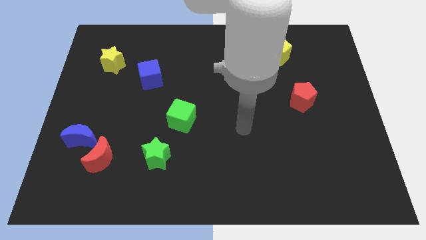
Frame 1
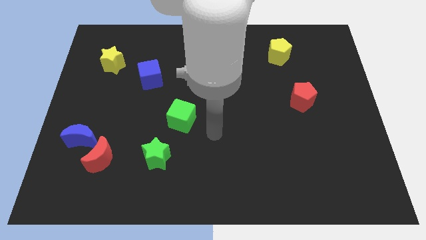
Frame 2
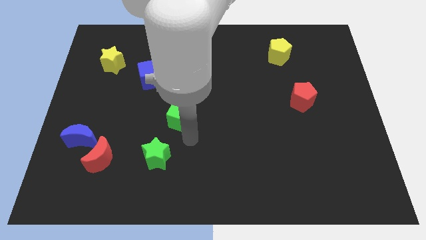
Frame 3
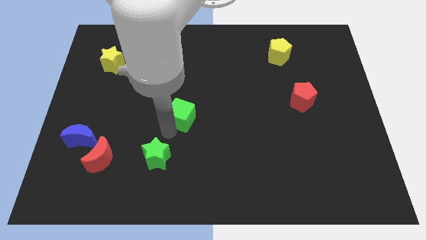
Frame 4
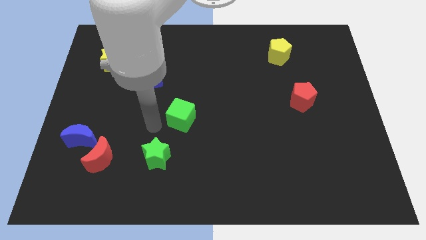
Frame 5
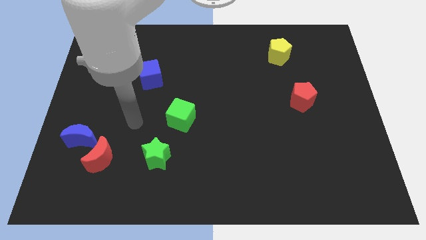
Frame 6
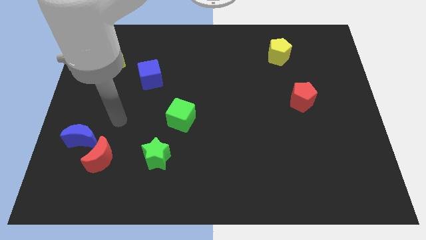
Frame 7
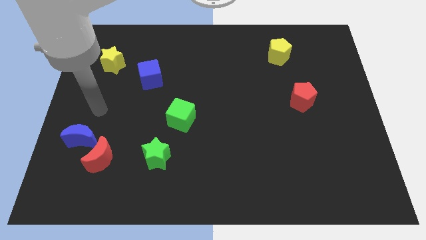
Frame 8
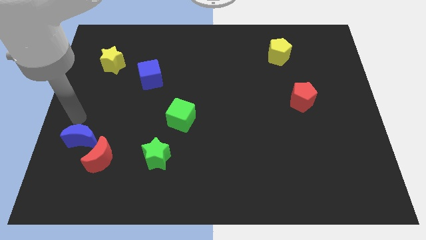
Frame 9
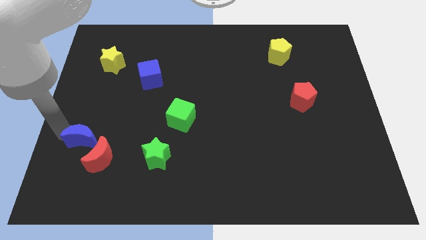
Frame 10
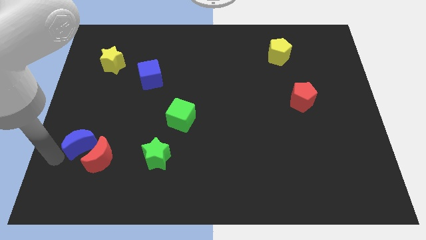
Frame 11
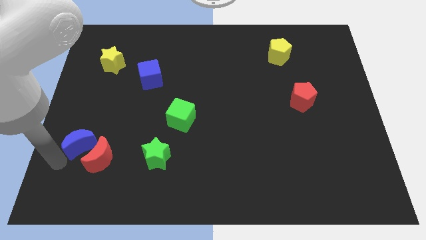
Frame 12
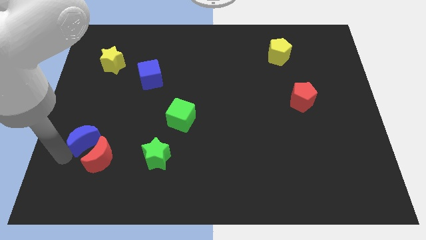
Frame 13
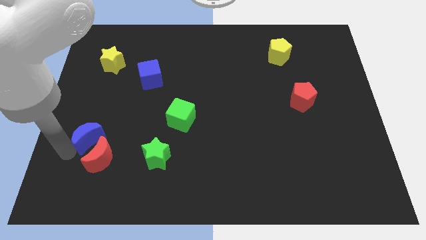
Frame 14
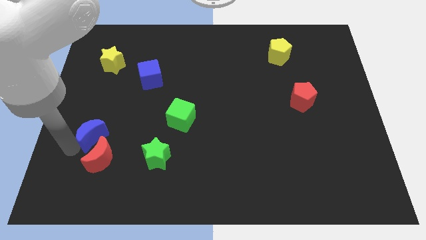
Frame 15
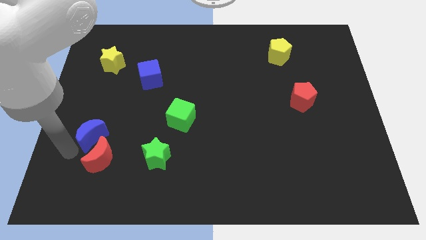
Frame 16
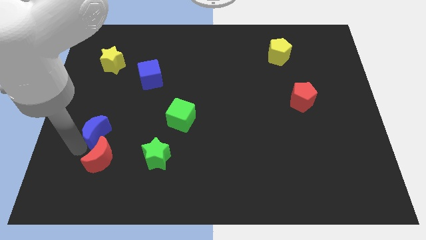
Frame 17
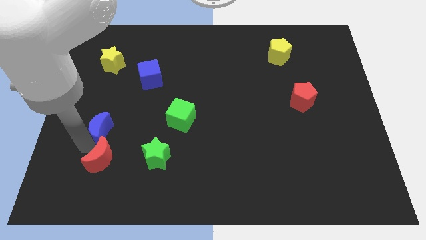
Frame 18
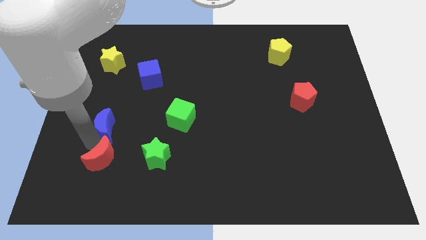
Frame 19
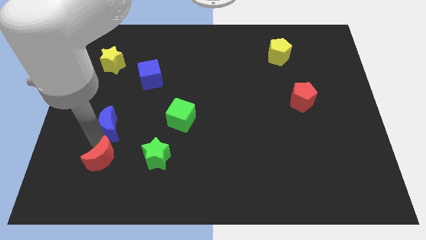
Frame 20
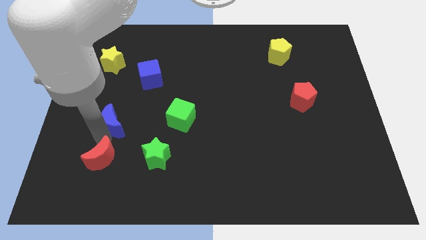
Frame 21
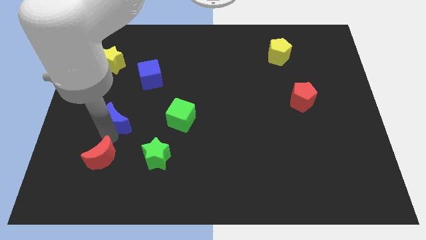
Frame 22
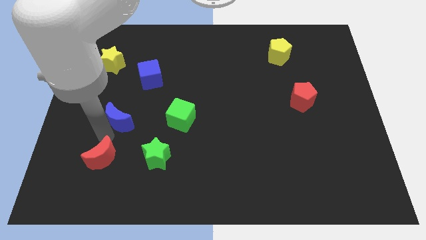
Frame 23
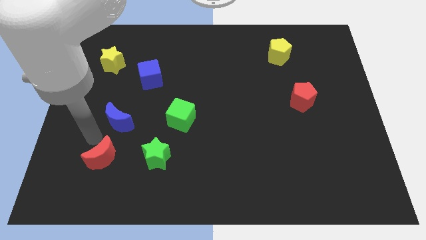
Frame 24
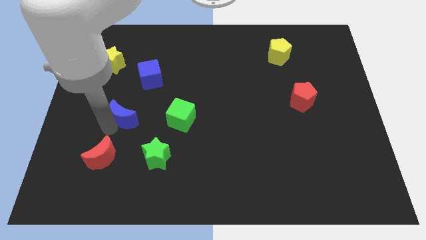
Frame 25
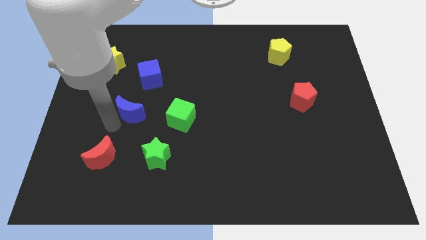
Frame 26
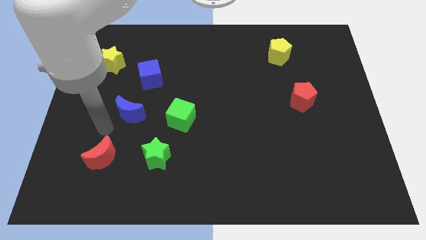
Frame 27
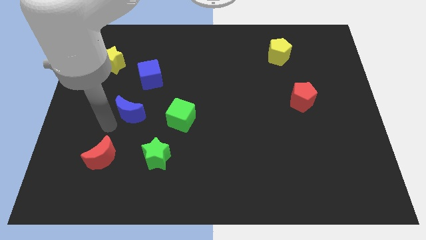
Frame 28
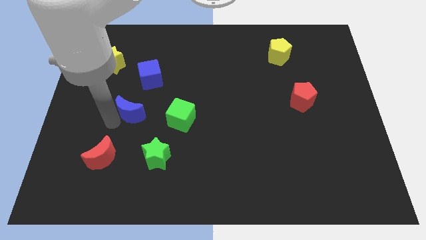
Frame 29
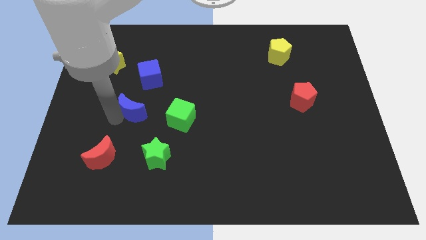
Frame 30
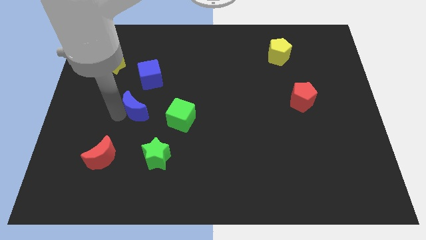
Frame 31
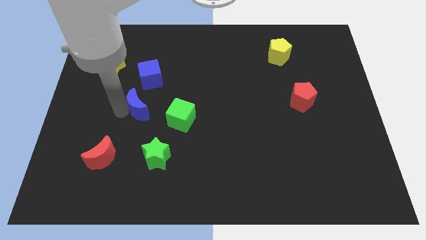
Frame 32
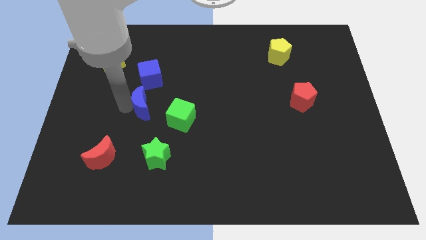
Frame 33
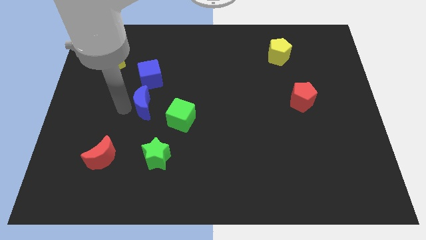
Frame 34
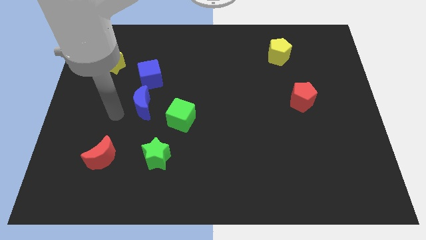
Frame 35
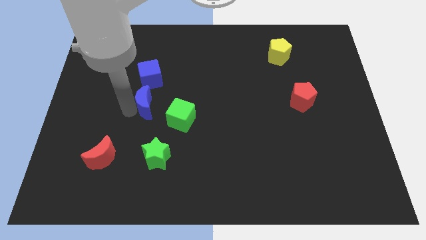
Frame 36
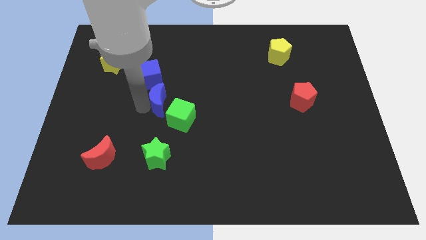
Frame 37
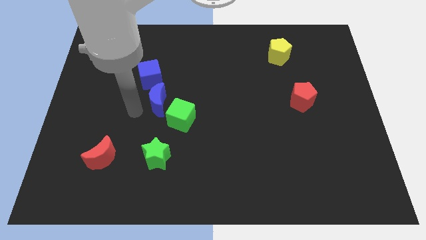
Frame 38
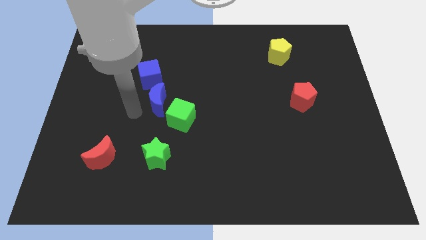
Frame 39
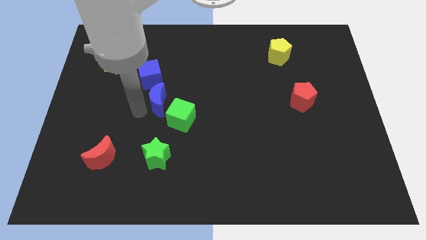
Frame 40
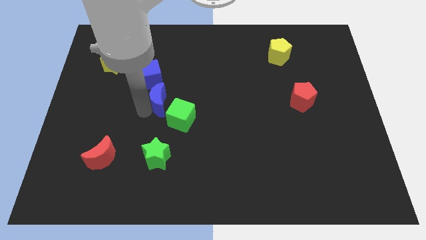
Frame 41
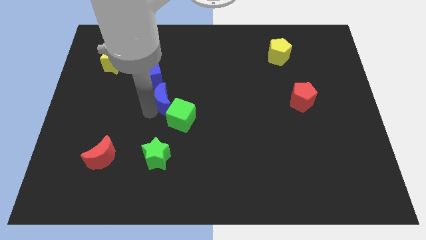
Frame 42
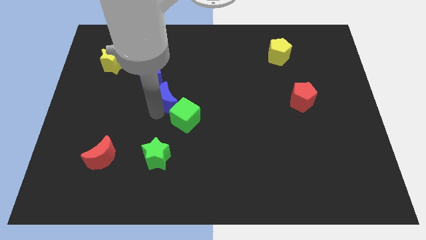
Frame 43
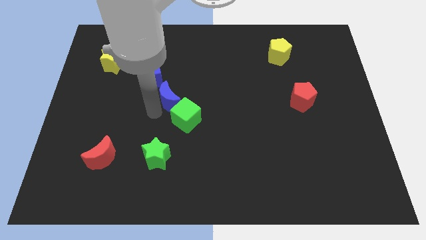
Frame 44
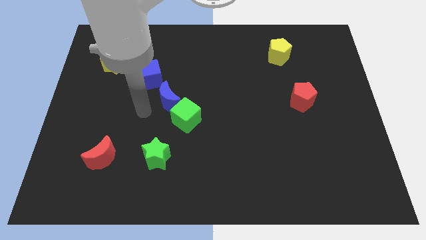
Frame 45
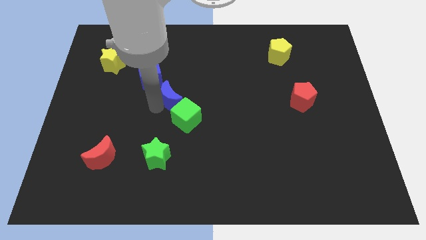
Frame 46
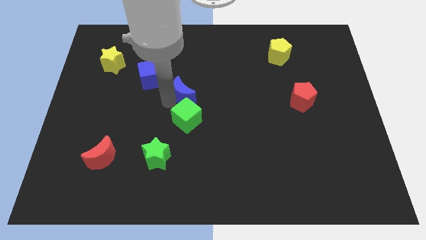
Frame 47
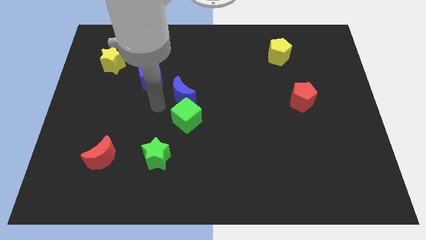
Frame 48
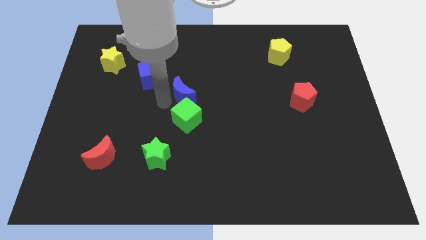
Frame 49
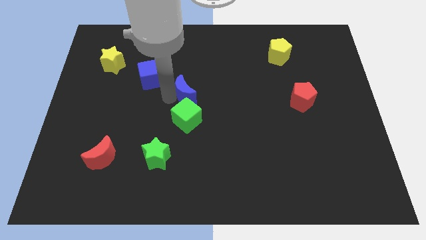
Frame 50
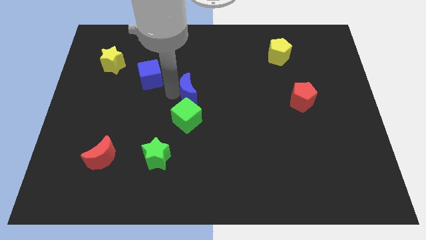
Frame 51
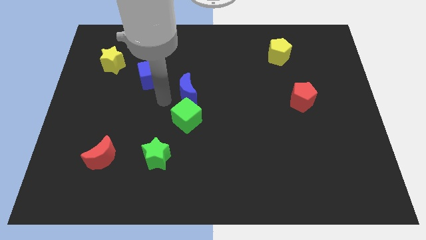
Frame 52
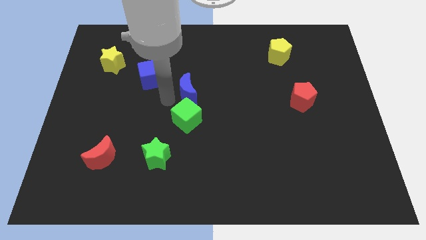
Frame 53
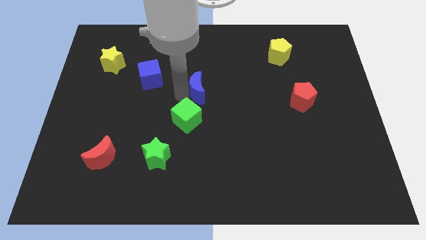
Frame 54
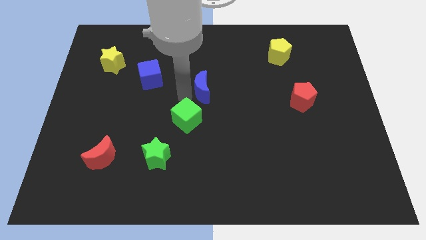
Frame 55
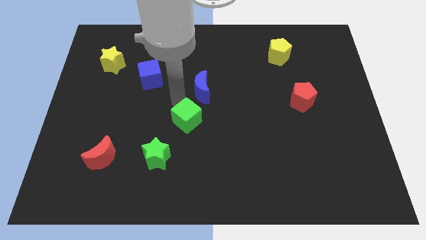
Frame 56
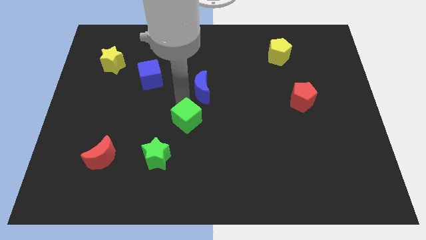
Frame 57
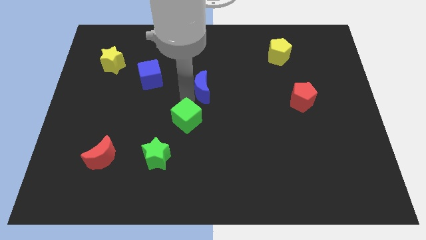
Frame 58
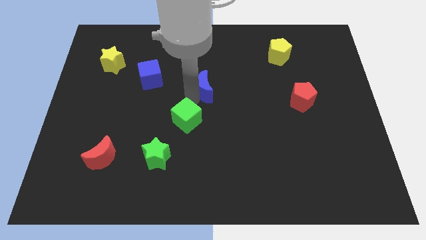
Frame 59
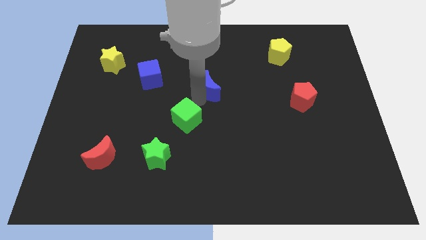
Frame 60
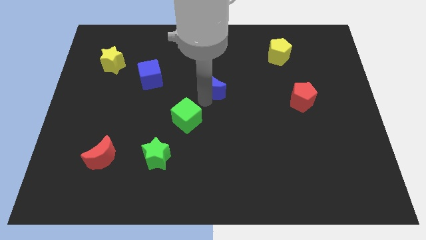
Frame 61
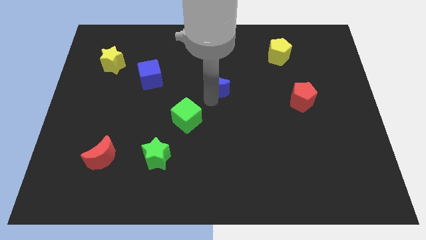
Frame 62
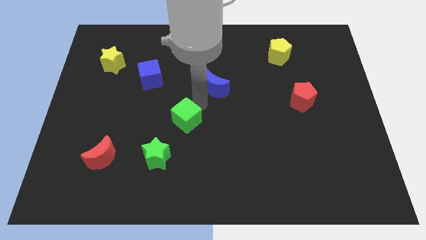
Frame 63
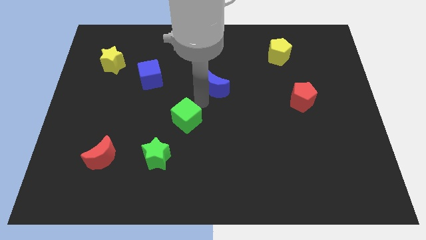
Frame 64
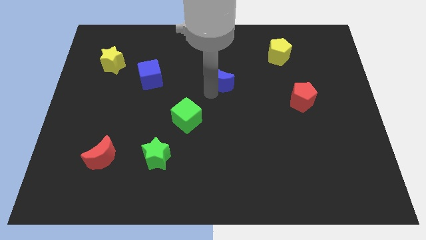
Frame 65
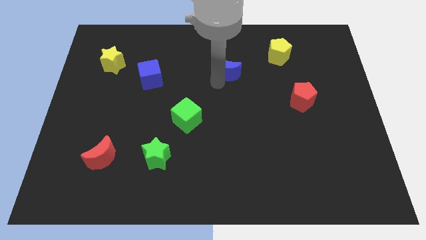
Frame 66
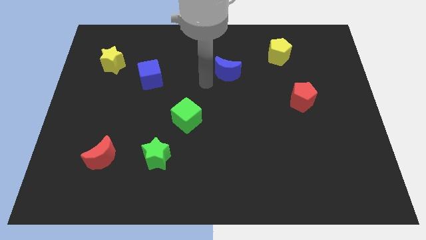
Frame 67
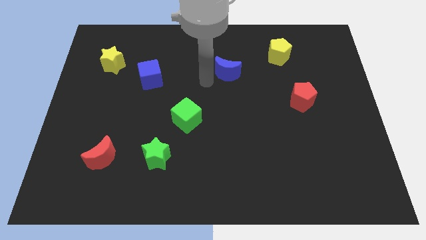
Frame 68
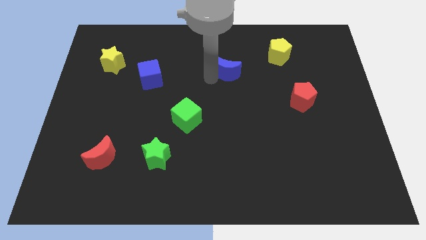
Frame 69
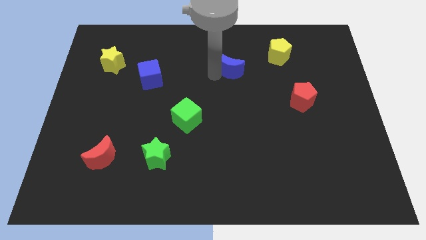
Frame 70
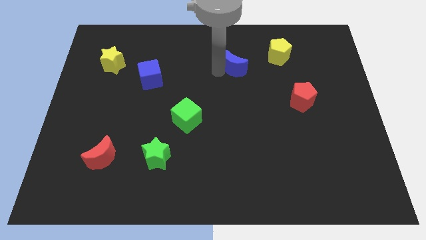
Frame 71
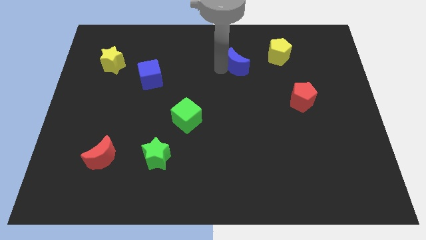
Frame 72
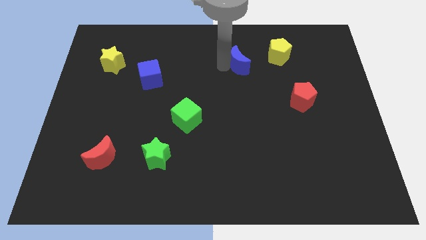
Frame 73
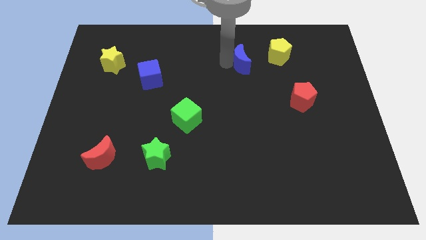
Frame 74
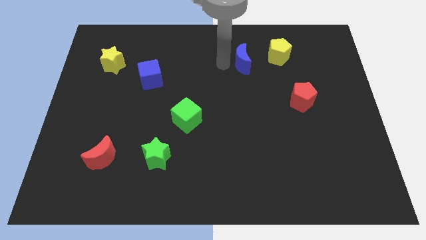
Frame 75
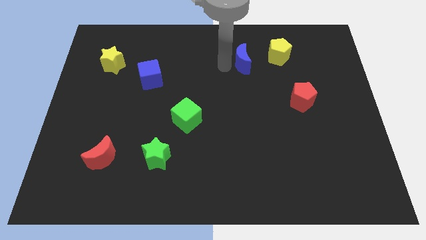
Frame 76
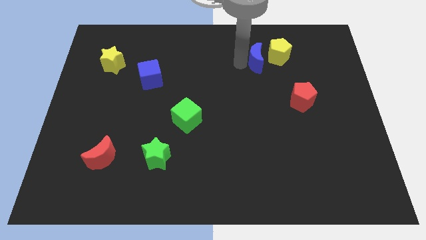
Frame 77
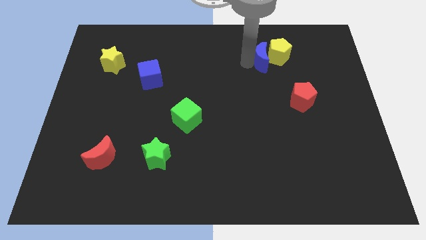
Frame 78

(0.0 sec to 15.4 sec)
move the blue moon towards the yellow pentagon

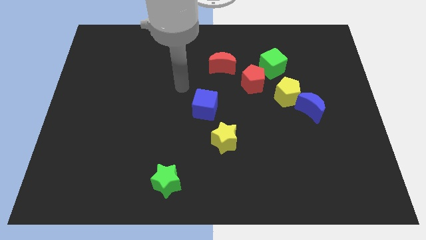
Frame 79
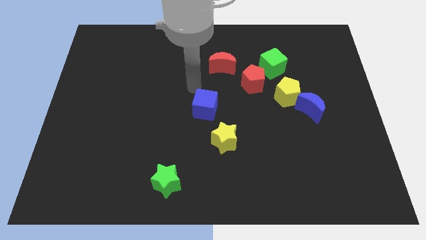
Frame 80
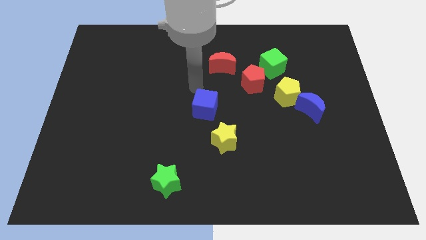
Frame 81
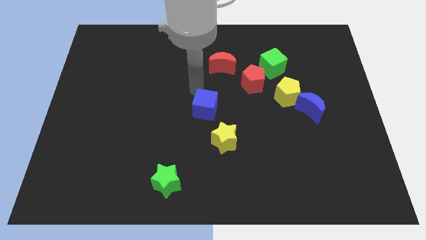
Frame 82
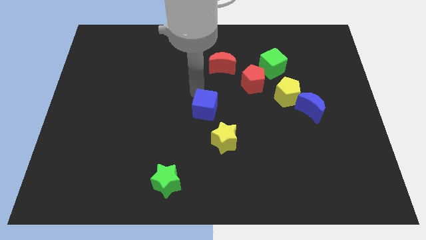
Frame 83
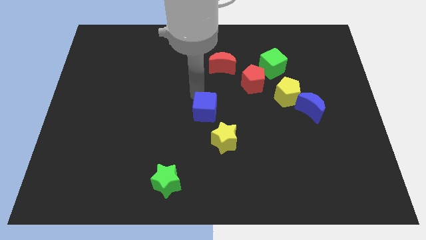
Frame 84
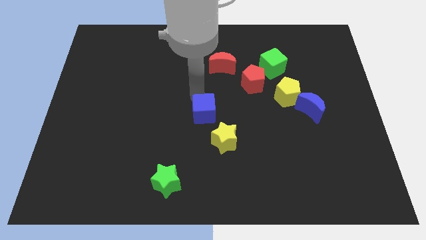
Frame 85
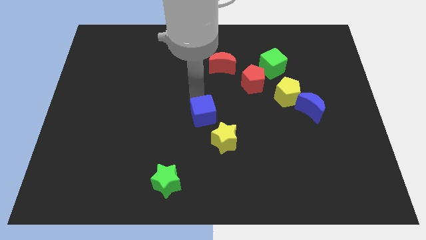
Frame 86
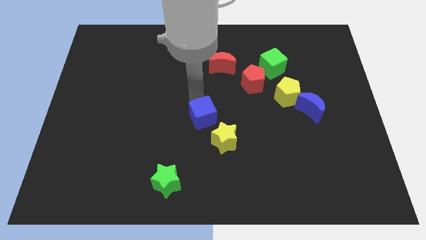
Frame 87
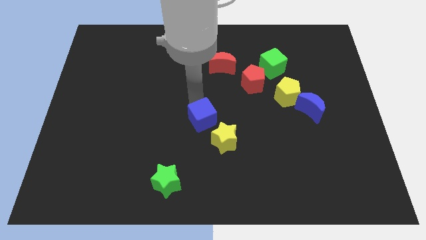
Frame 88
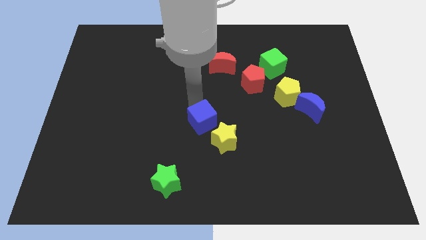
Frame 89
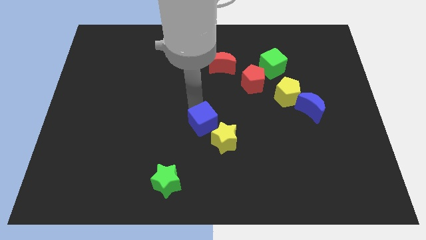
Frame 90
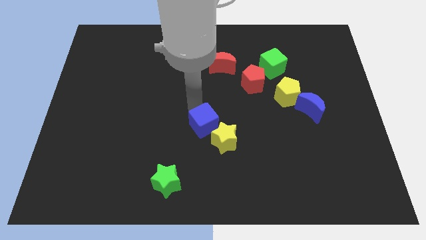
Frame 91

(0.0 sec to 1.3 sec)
push the blue cube next to the yellow star
